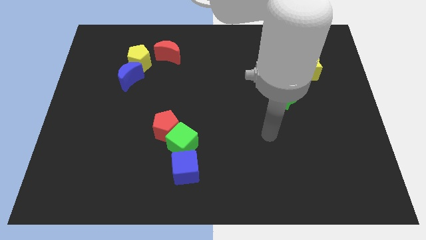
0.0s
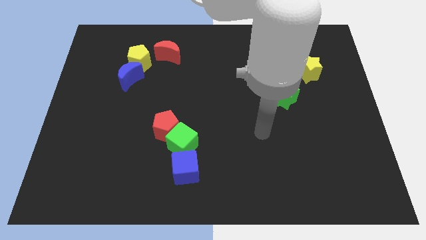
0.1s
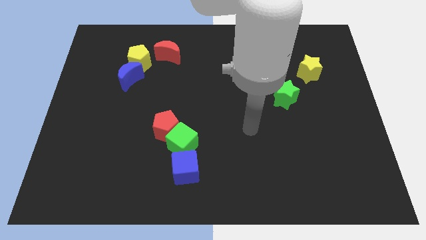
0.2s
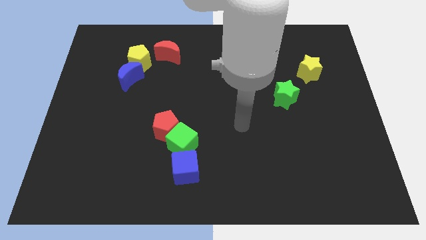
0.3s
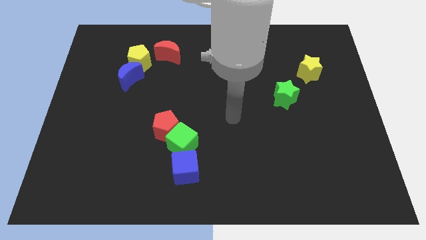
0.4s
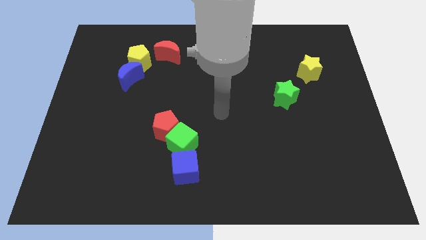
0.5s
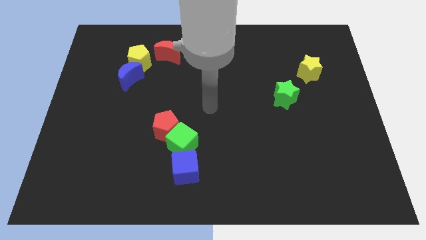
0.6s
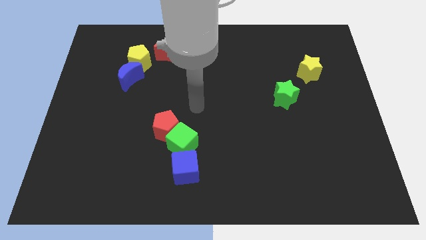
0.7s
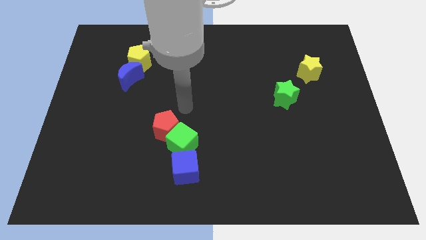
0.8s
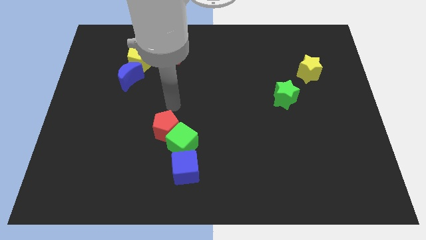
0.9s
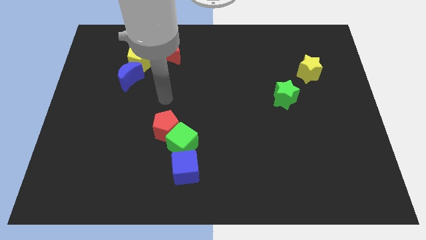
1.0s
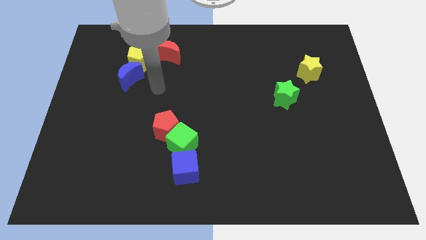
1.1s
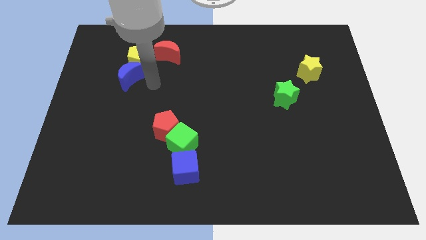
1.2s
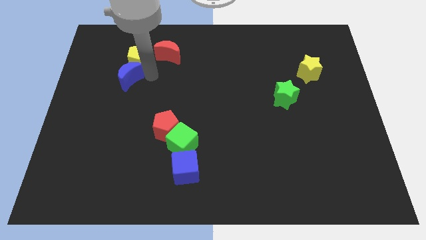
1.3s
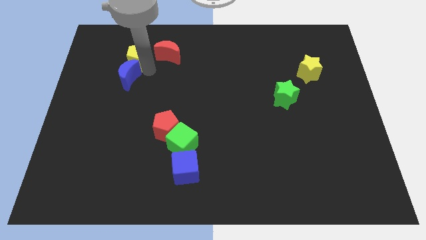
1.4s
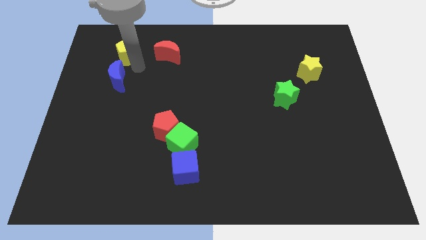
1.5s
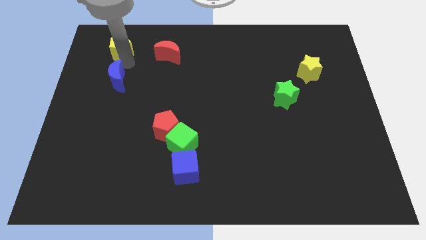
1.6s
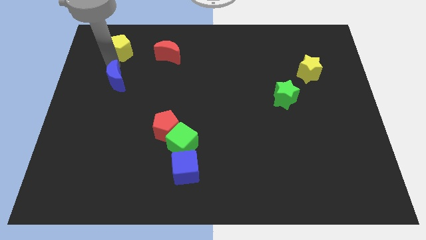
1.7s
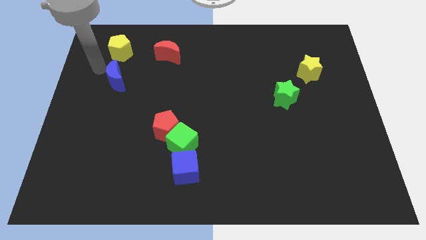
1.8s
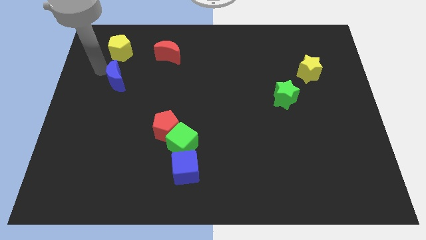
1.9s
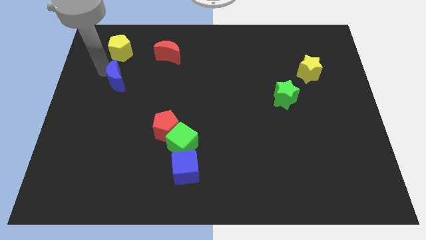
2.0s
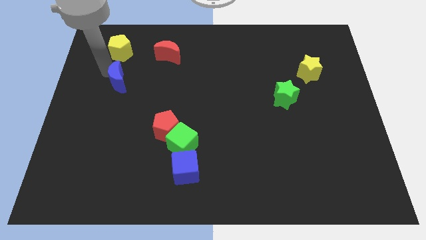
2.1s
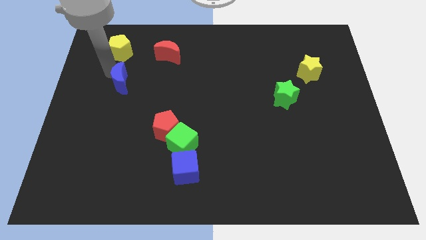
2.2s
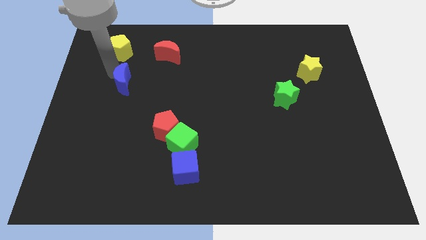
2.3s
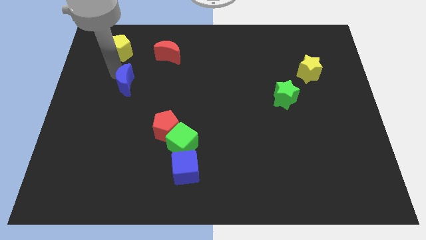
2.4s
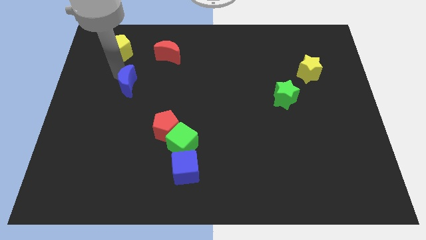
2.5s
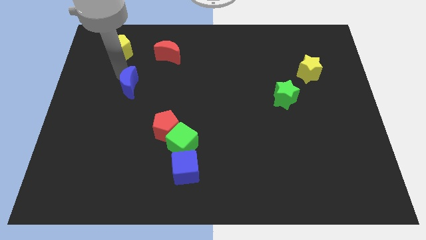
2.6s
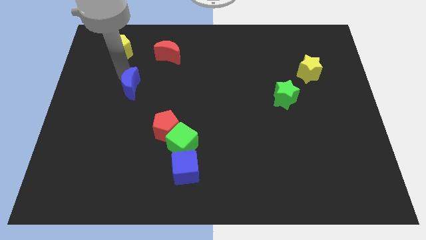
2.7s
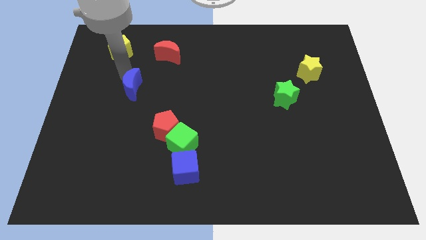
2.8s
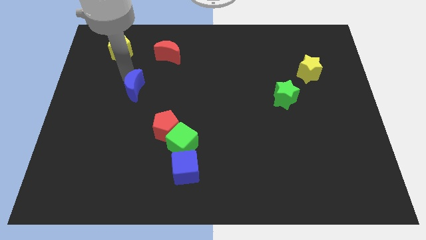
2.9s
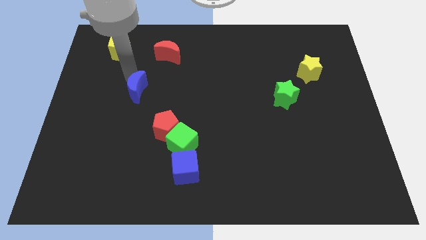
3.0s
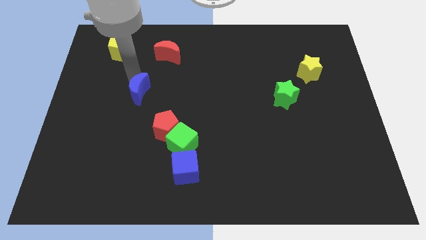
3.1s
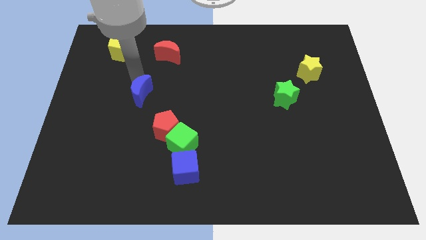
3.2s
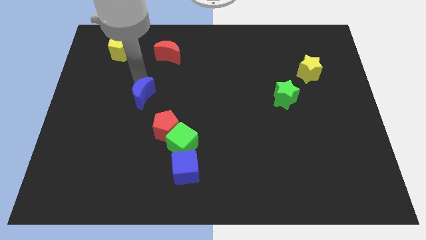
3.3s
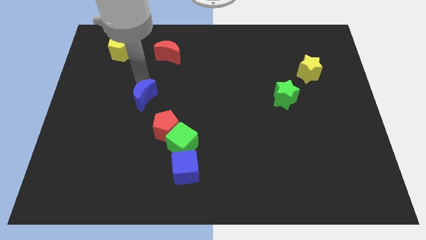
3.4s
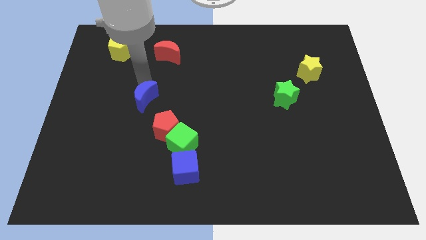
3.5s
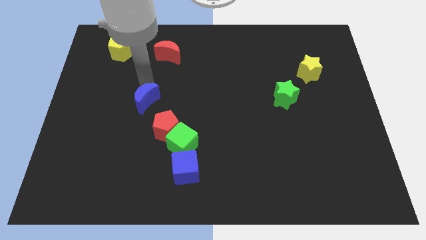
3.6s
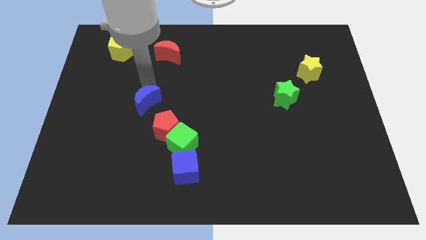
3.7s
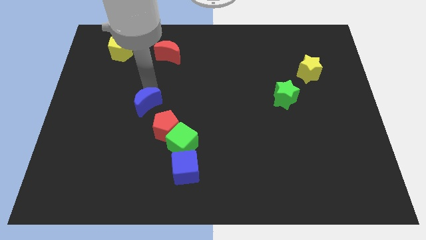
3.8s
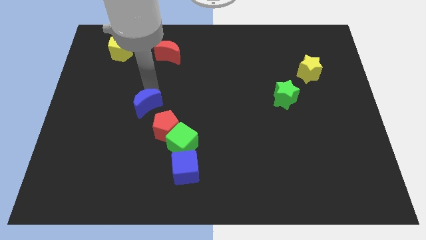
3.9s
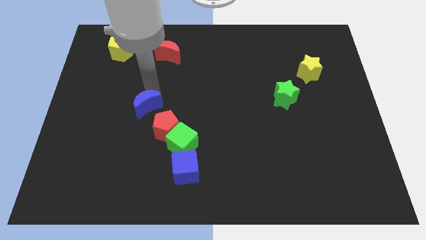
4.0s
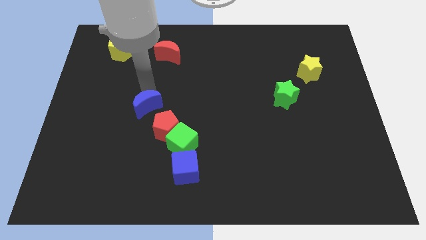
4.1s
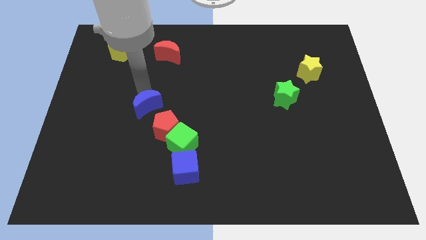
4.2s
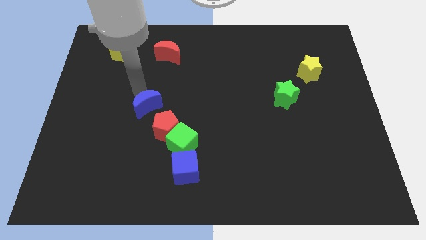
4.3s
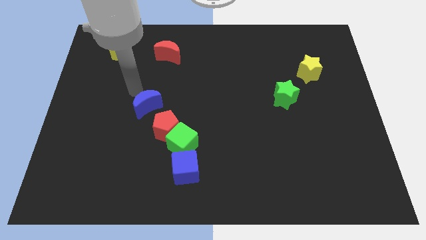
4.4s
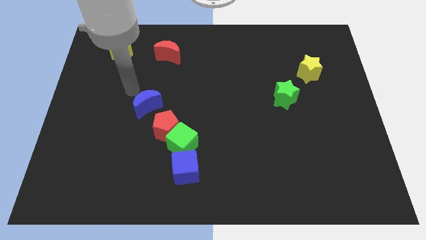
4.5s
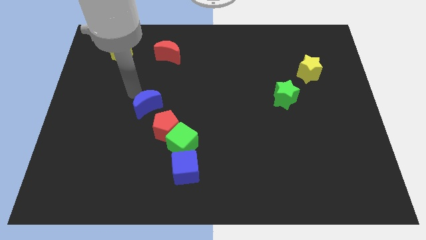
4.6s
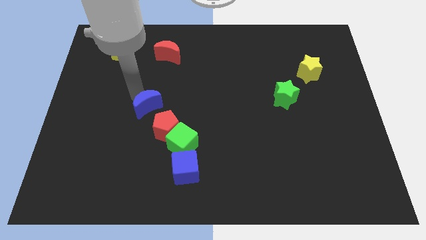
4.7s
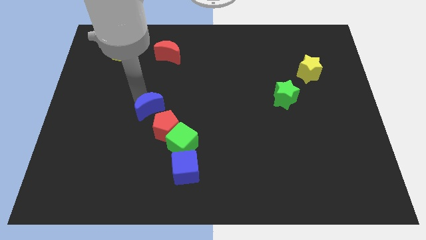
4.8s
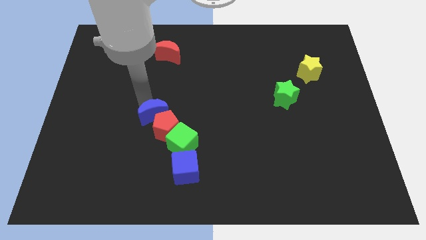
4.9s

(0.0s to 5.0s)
put the blue moon towards the red pentagon

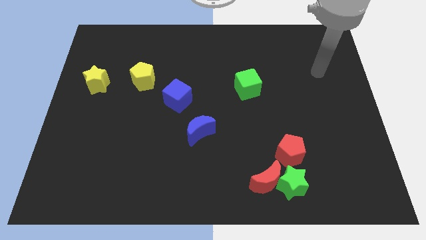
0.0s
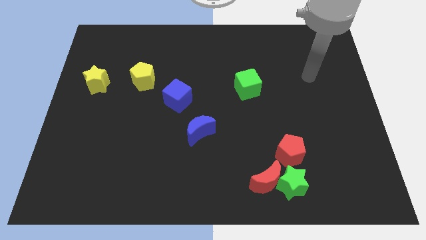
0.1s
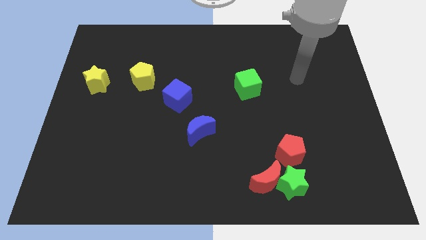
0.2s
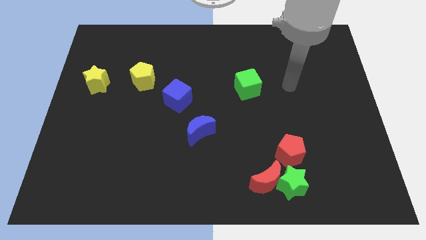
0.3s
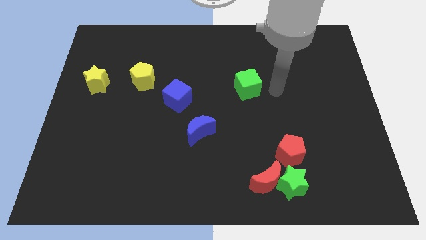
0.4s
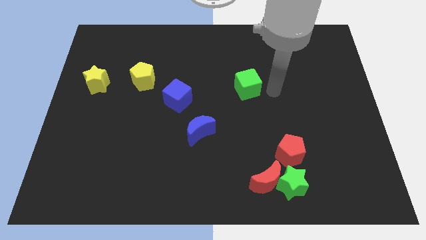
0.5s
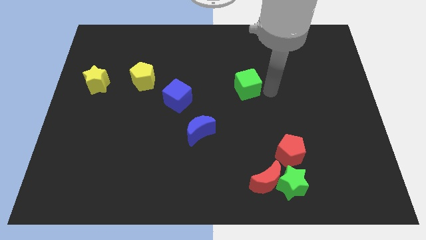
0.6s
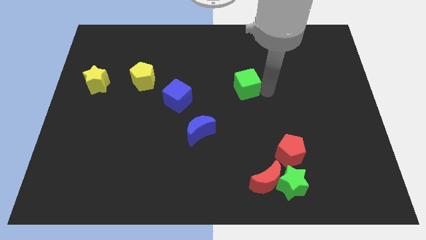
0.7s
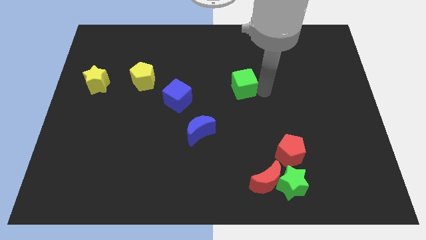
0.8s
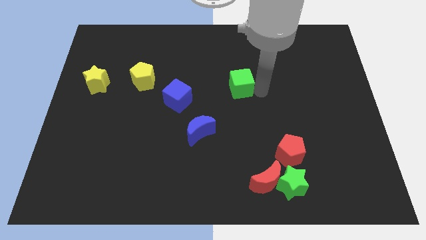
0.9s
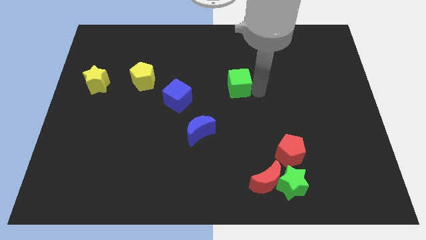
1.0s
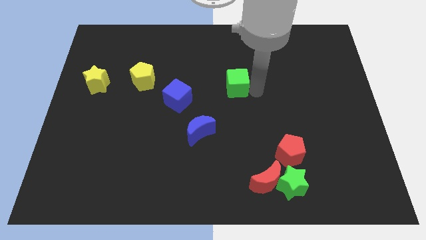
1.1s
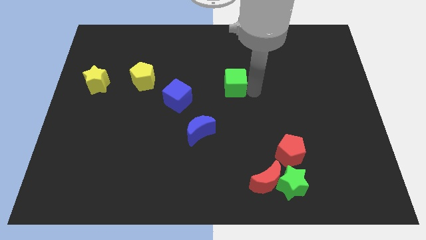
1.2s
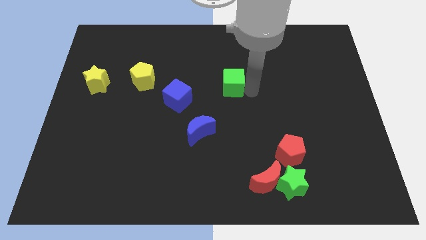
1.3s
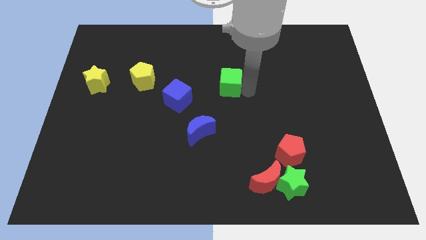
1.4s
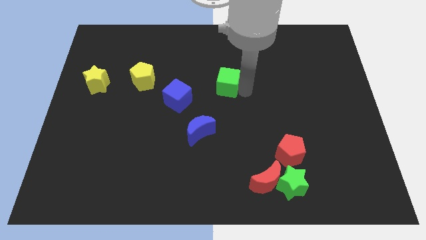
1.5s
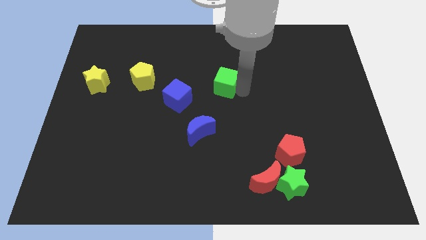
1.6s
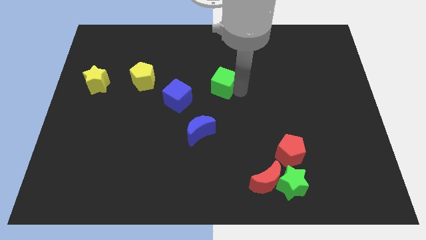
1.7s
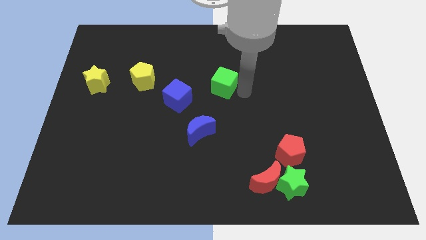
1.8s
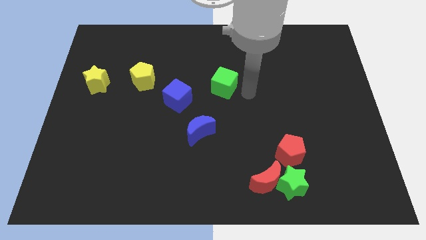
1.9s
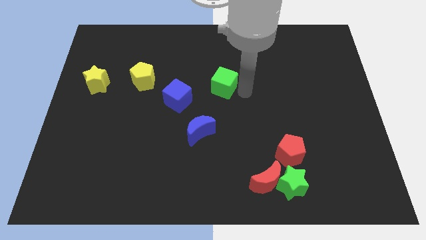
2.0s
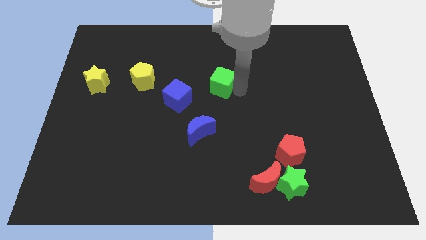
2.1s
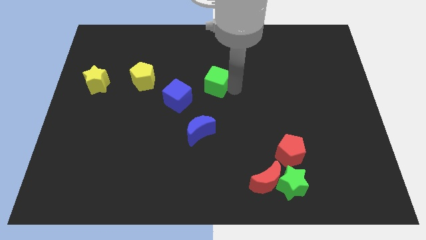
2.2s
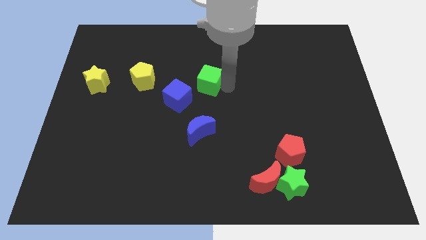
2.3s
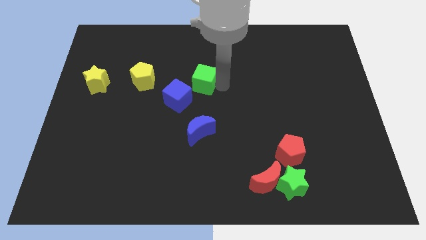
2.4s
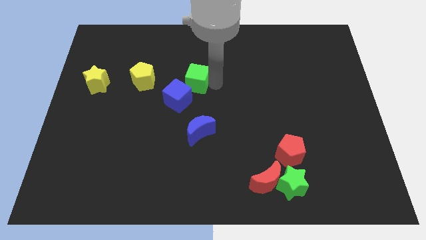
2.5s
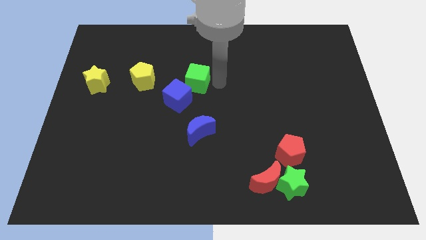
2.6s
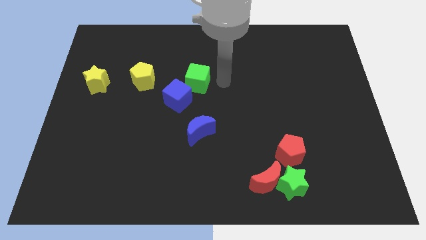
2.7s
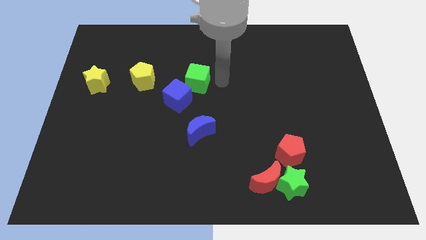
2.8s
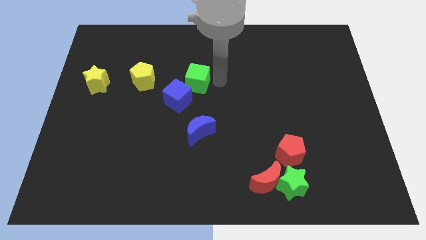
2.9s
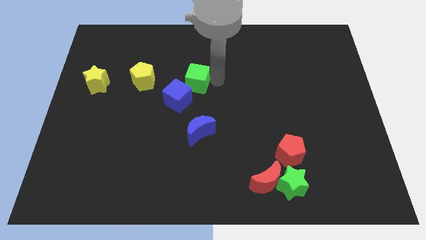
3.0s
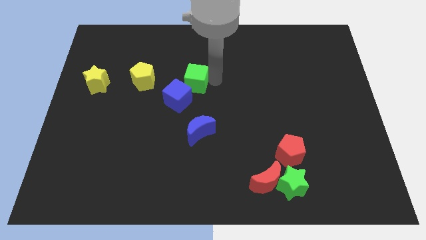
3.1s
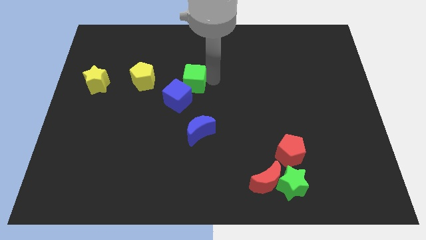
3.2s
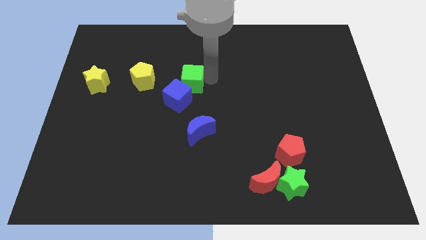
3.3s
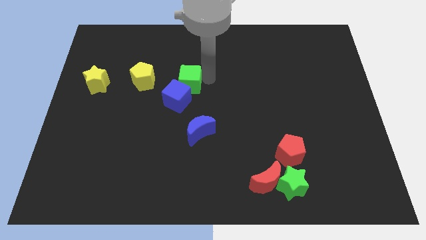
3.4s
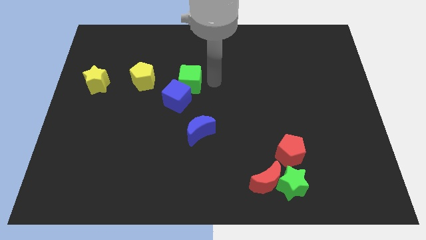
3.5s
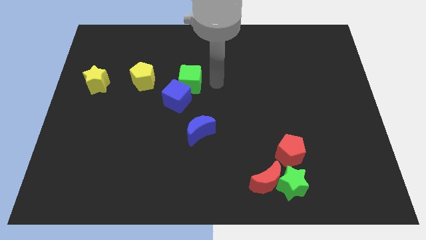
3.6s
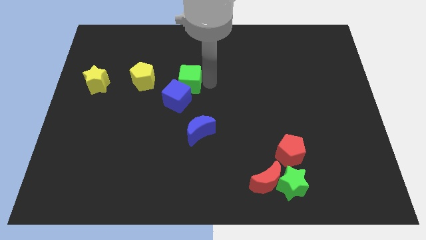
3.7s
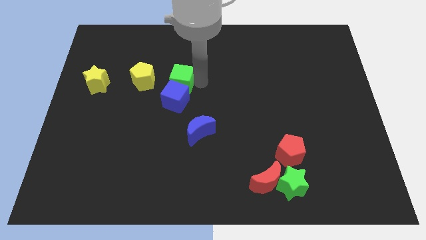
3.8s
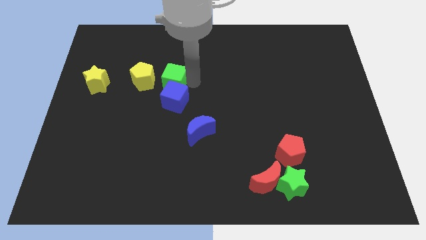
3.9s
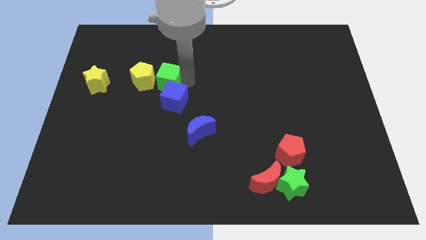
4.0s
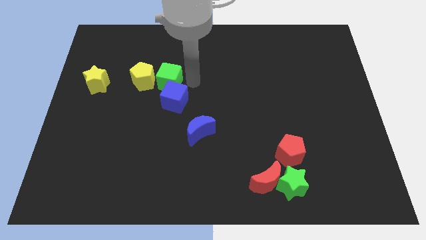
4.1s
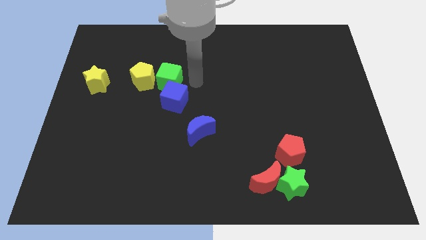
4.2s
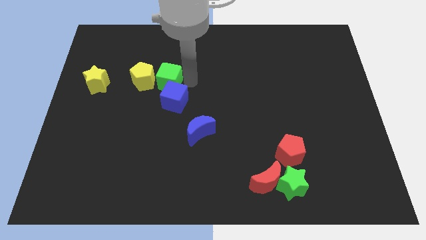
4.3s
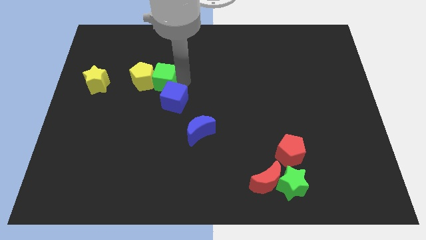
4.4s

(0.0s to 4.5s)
slide the green cube to the yellow pentagon
